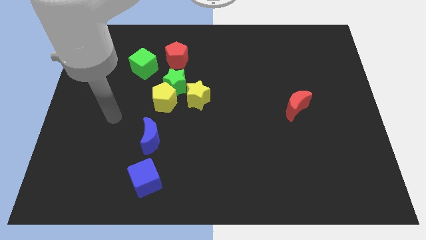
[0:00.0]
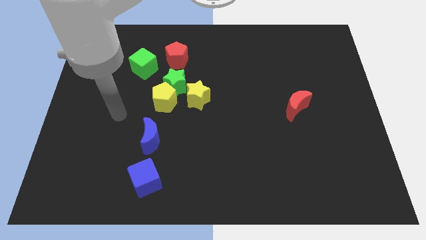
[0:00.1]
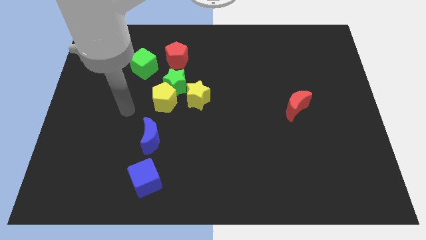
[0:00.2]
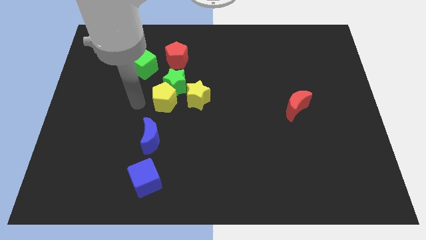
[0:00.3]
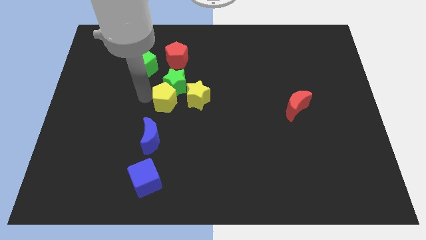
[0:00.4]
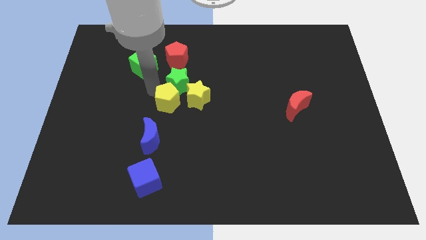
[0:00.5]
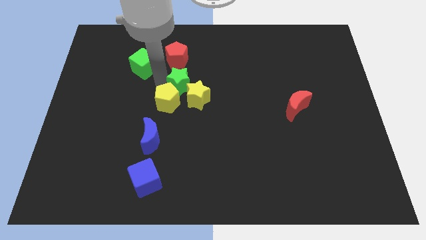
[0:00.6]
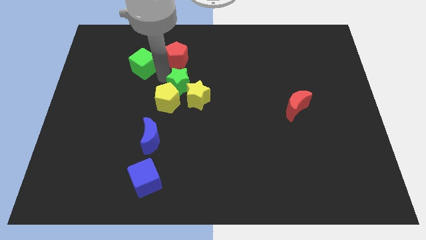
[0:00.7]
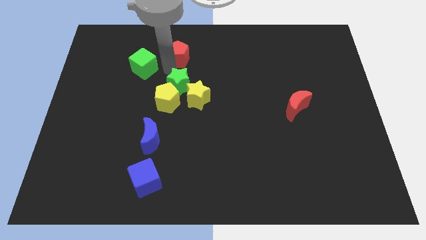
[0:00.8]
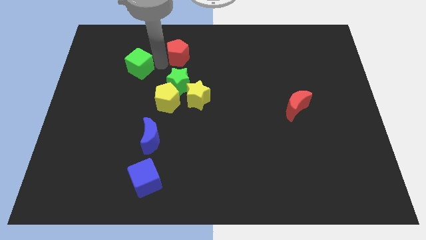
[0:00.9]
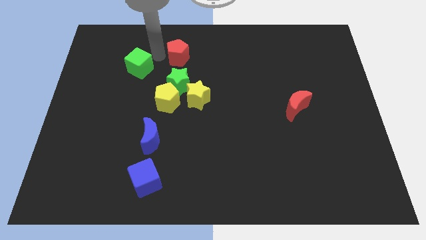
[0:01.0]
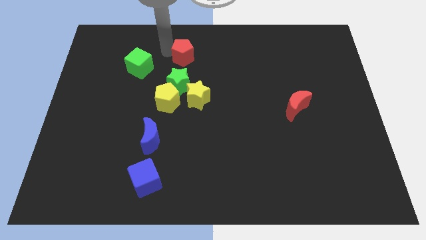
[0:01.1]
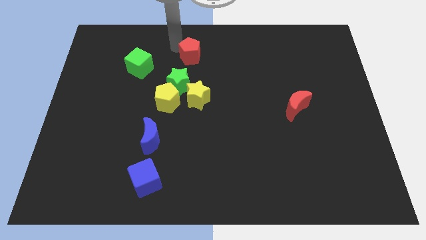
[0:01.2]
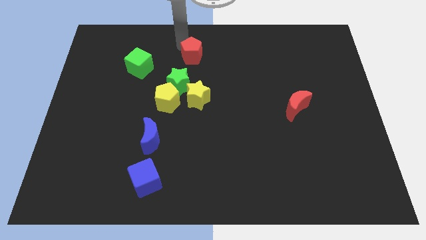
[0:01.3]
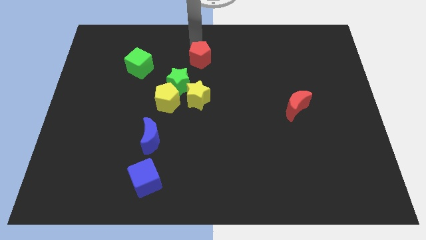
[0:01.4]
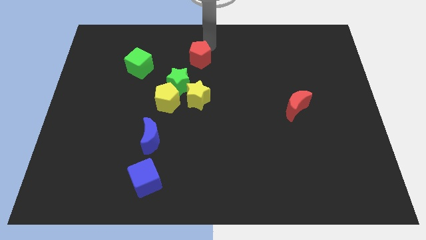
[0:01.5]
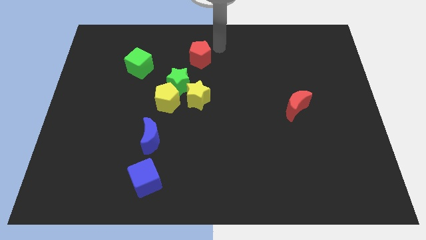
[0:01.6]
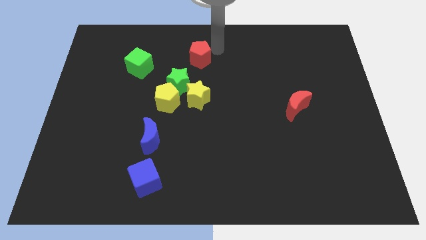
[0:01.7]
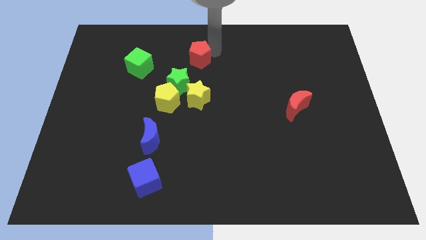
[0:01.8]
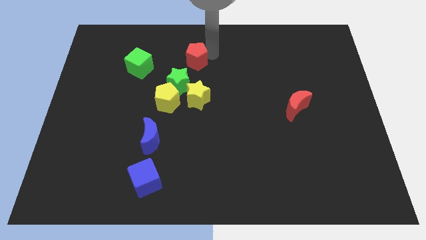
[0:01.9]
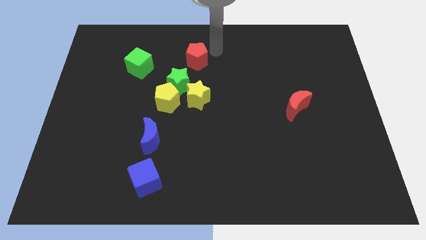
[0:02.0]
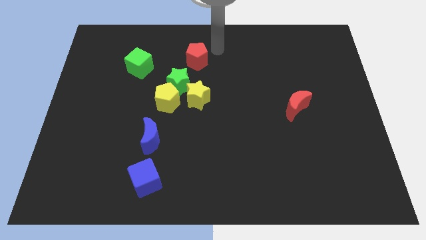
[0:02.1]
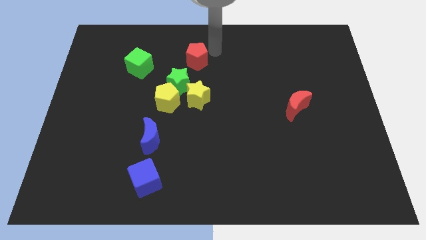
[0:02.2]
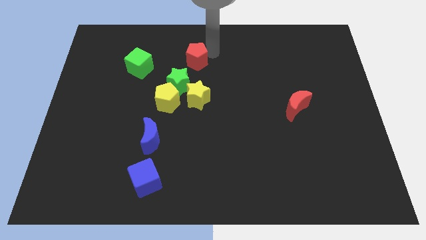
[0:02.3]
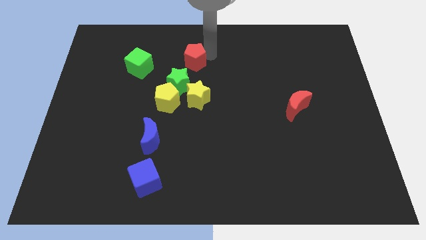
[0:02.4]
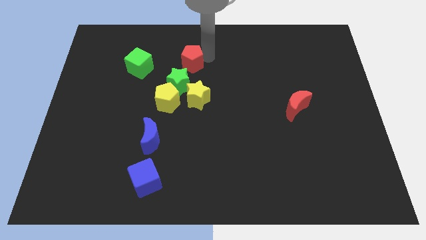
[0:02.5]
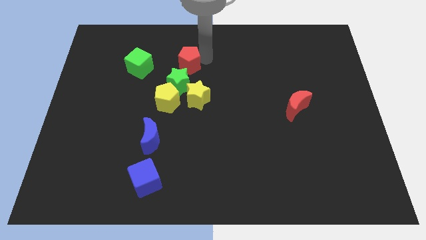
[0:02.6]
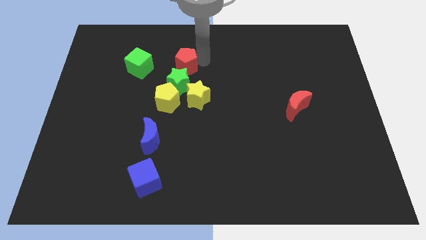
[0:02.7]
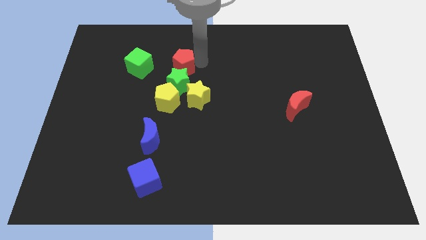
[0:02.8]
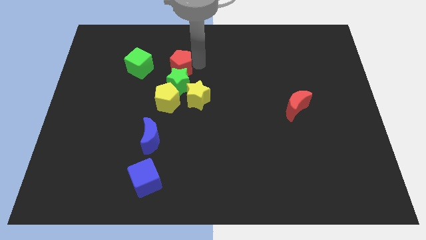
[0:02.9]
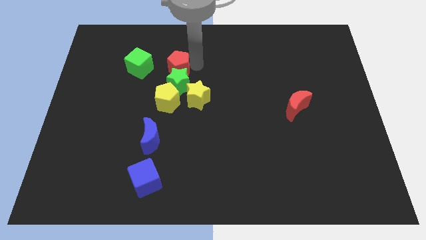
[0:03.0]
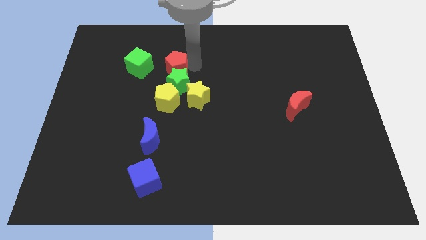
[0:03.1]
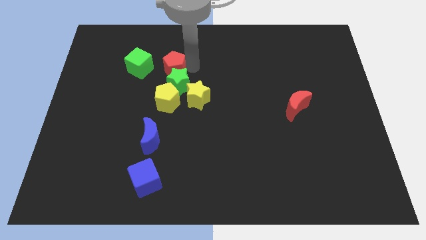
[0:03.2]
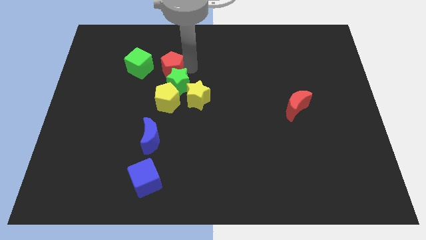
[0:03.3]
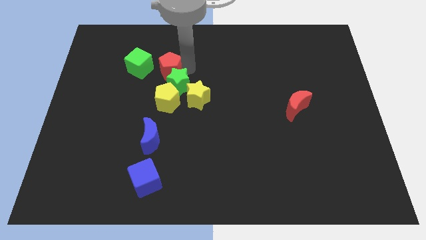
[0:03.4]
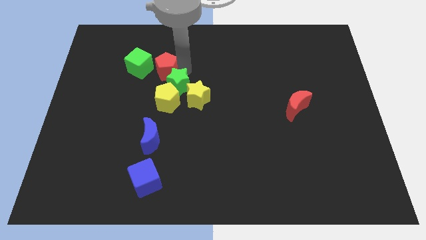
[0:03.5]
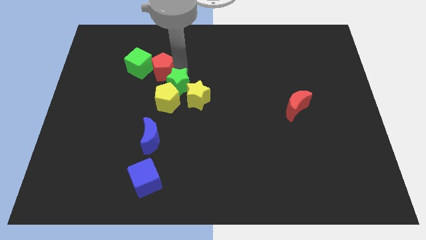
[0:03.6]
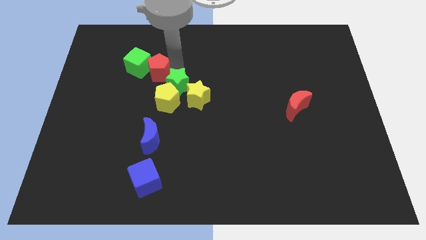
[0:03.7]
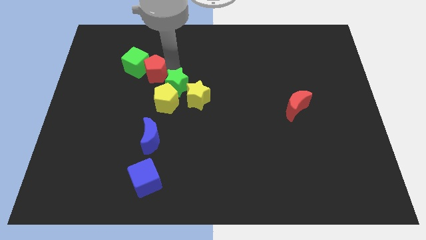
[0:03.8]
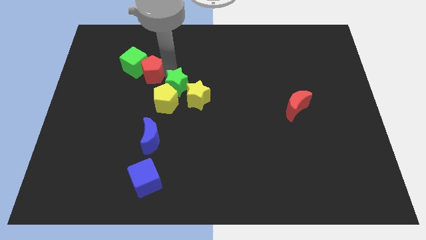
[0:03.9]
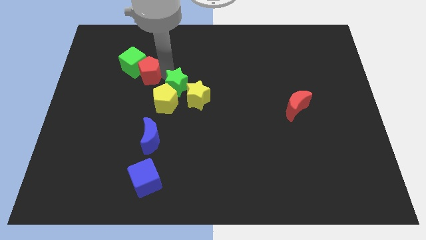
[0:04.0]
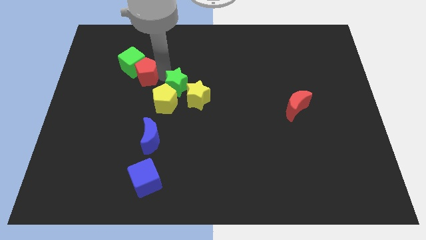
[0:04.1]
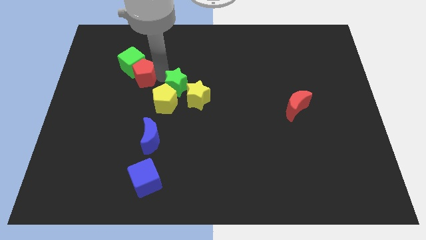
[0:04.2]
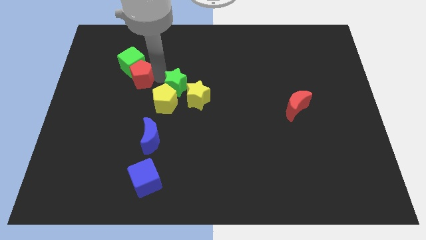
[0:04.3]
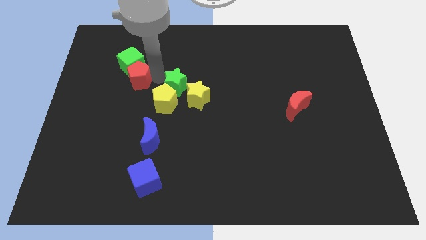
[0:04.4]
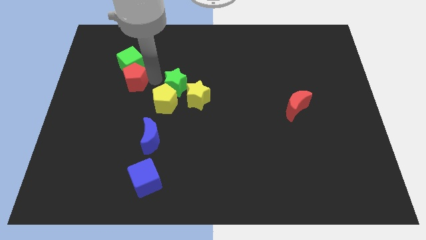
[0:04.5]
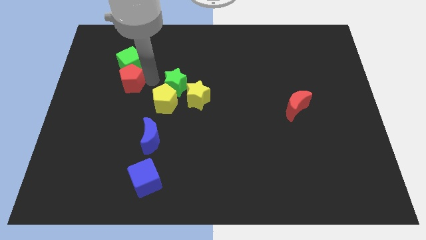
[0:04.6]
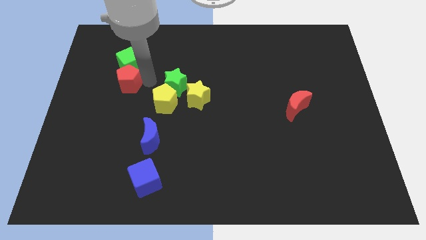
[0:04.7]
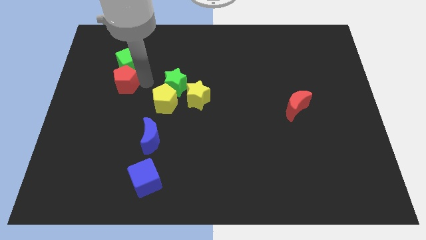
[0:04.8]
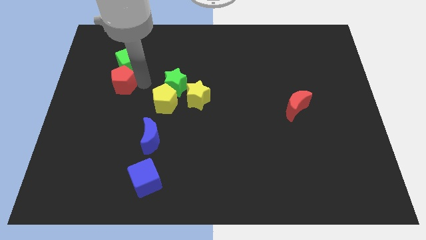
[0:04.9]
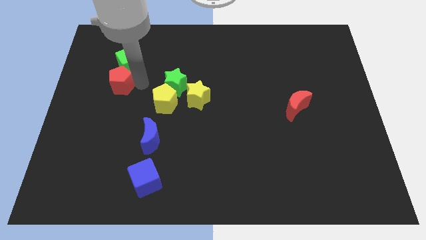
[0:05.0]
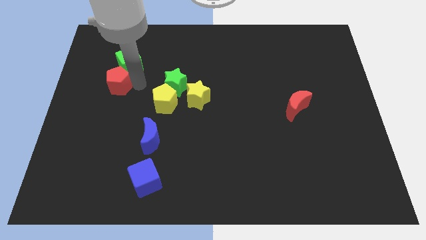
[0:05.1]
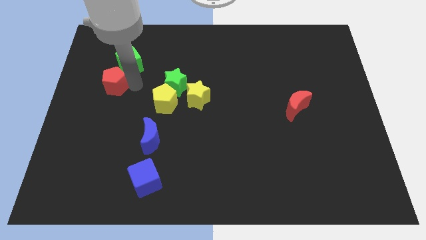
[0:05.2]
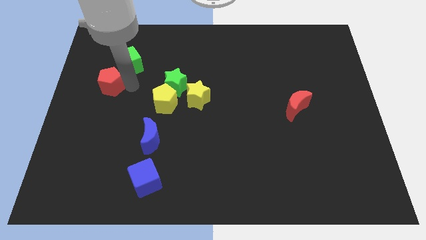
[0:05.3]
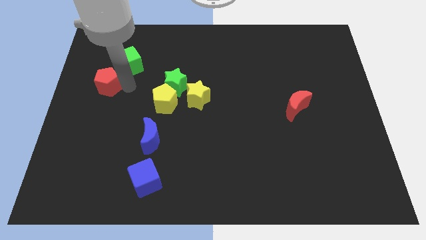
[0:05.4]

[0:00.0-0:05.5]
put the red pentagon to the center left
